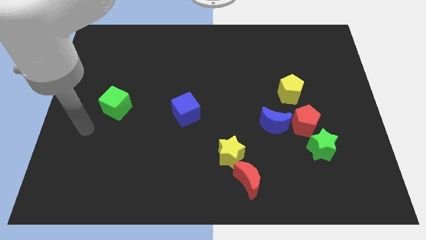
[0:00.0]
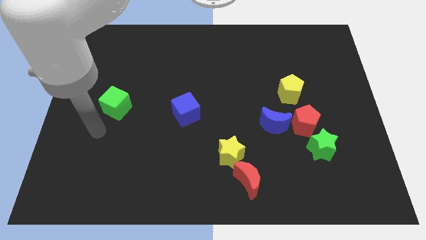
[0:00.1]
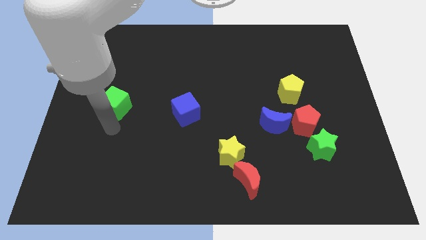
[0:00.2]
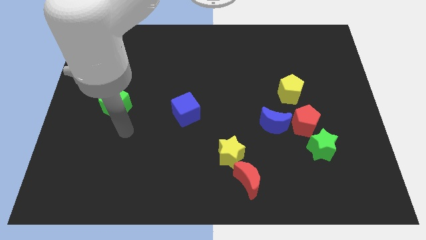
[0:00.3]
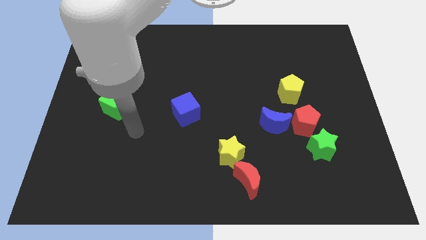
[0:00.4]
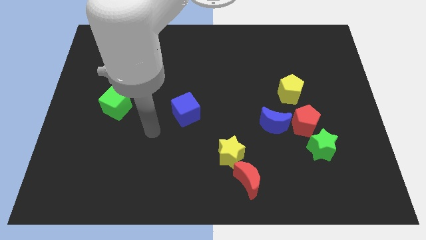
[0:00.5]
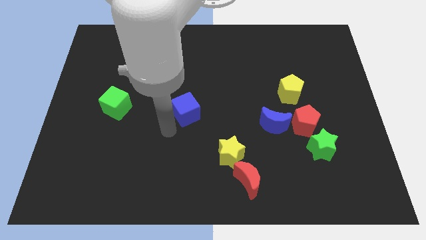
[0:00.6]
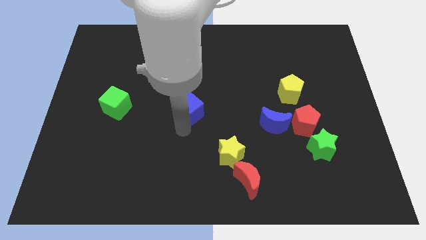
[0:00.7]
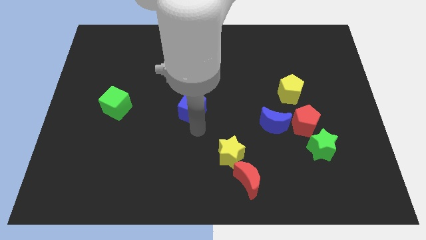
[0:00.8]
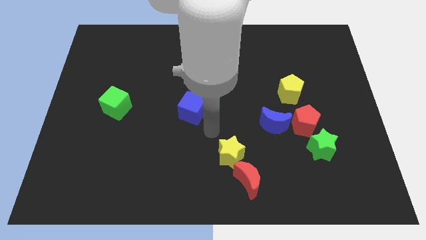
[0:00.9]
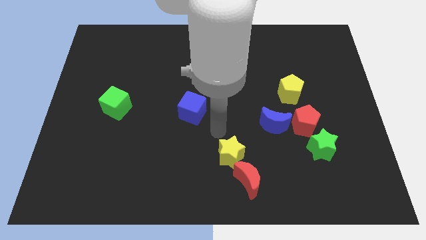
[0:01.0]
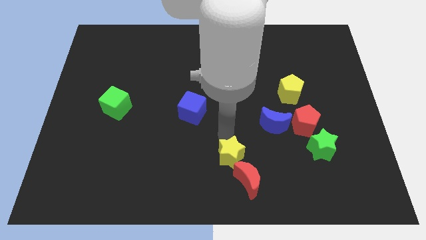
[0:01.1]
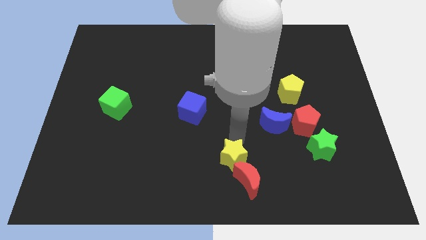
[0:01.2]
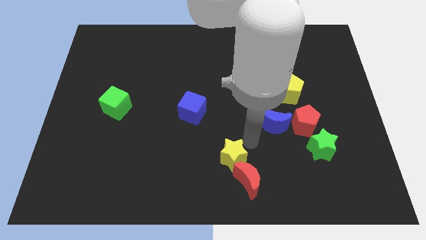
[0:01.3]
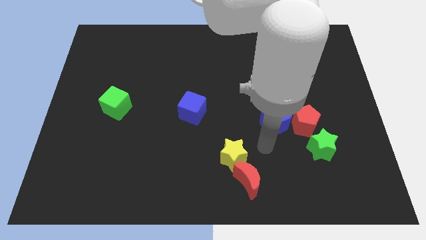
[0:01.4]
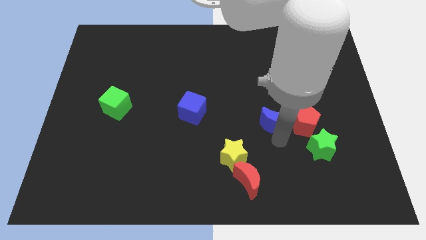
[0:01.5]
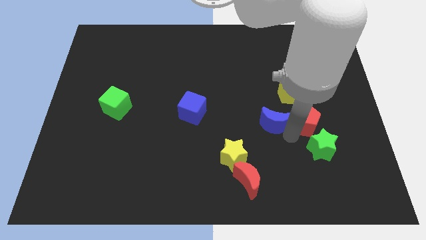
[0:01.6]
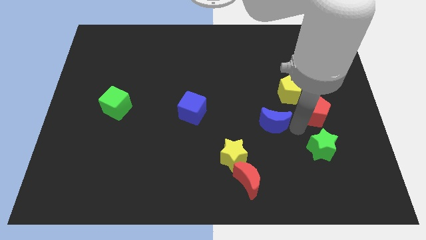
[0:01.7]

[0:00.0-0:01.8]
separate the blue moon from the red pentagon

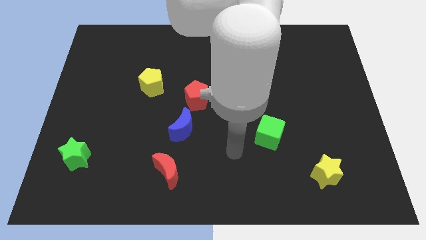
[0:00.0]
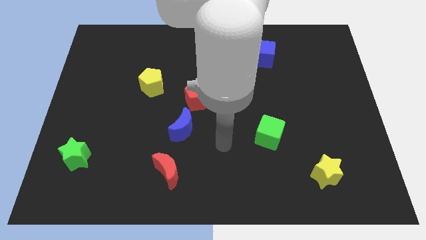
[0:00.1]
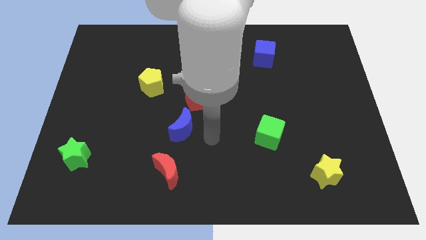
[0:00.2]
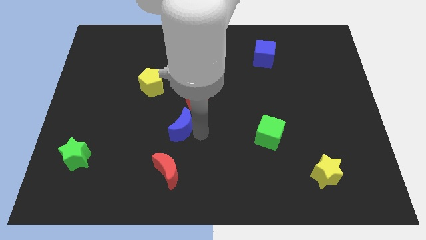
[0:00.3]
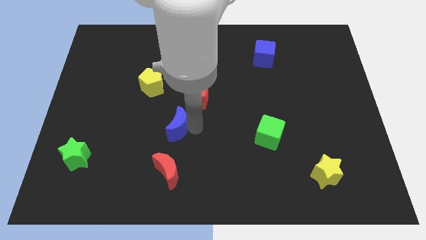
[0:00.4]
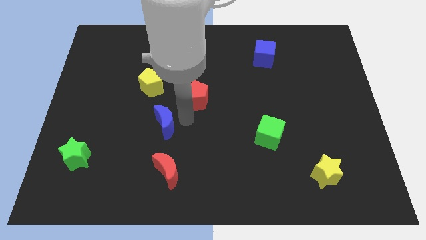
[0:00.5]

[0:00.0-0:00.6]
pull the red pentagon apart from the blue moon

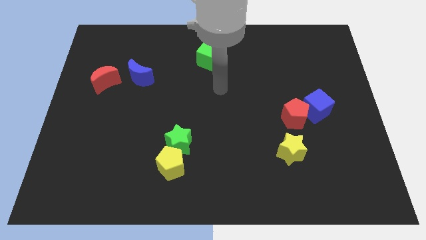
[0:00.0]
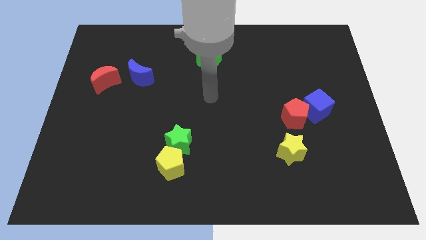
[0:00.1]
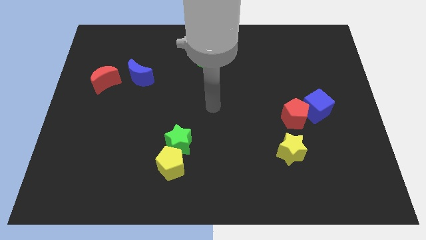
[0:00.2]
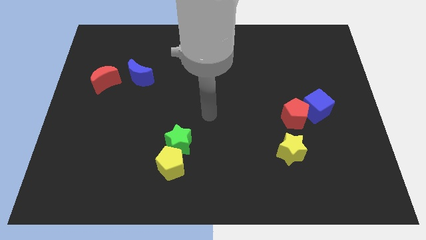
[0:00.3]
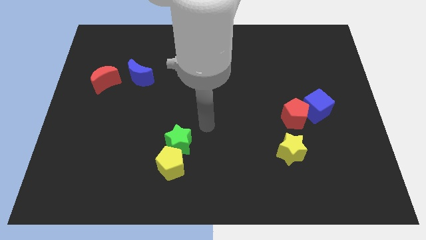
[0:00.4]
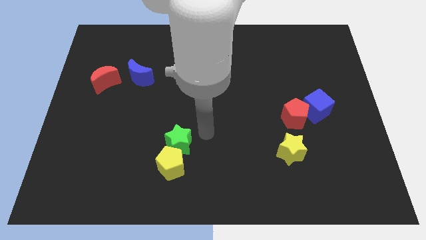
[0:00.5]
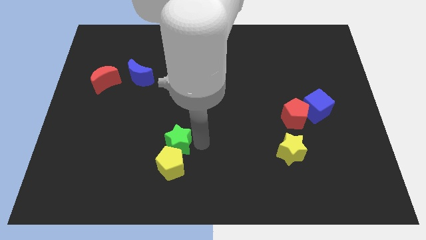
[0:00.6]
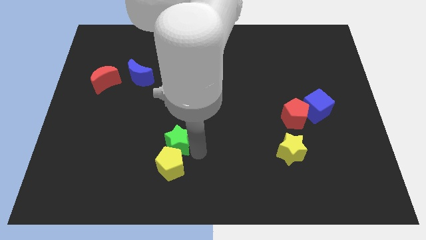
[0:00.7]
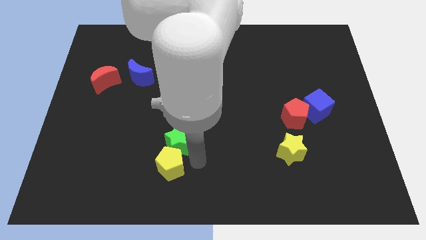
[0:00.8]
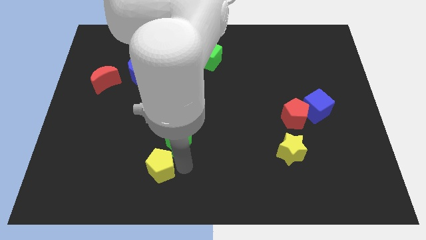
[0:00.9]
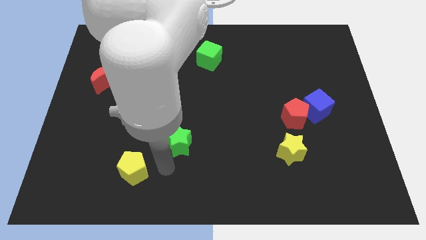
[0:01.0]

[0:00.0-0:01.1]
separate the green star from the yellow pentagon

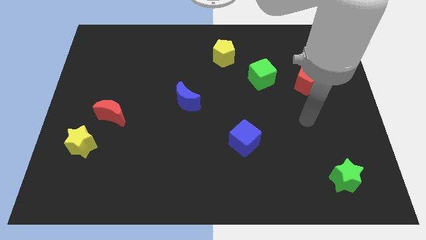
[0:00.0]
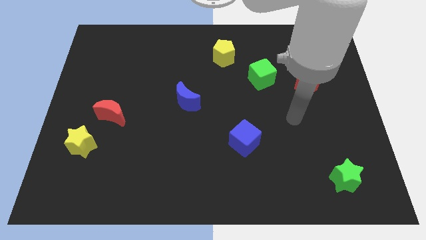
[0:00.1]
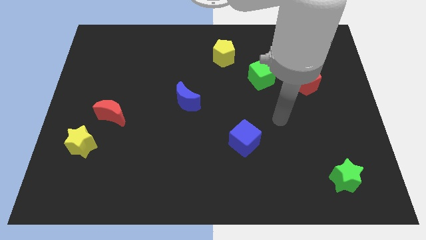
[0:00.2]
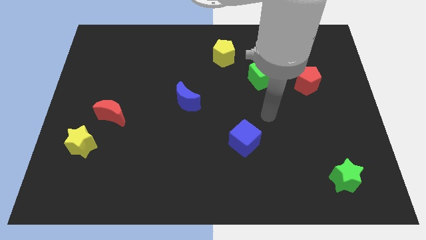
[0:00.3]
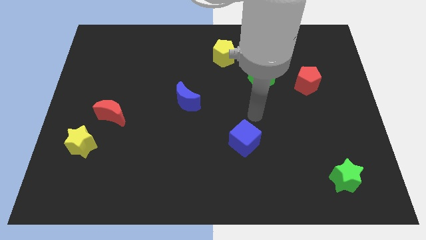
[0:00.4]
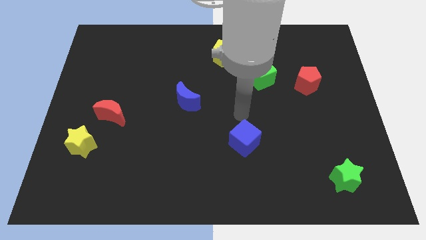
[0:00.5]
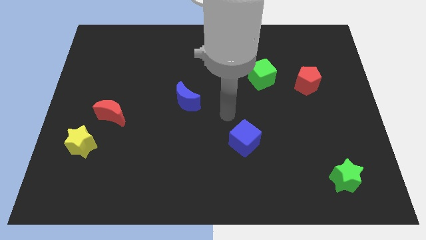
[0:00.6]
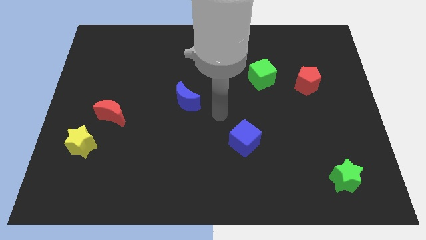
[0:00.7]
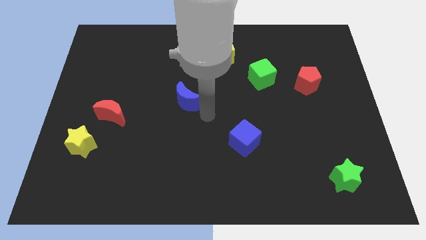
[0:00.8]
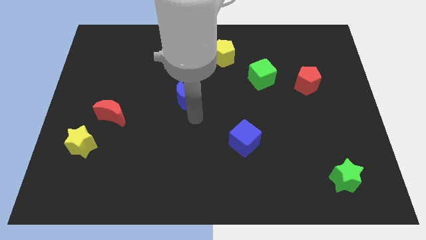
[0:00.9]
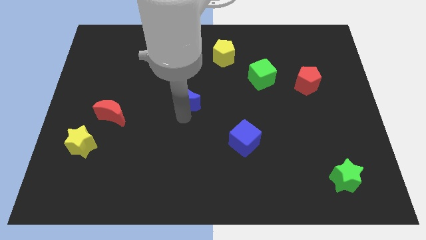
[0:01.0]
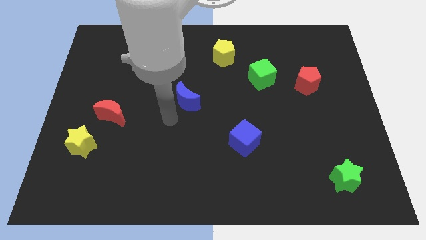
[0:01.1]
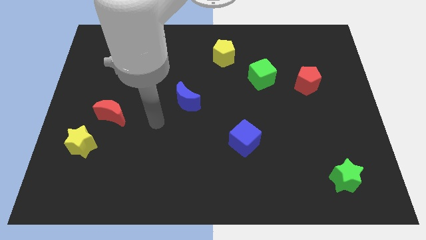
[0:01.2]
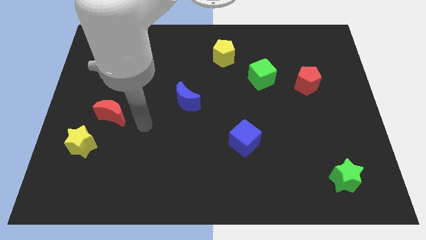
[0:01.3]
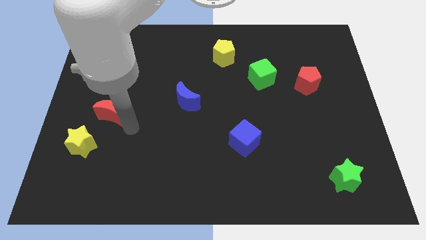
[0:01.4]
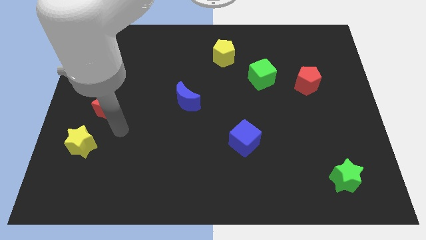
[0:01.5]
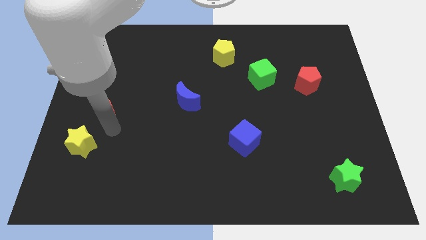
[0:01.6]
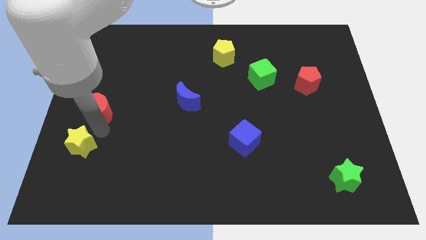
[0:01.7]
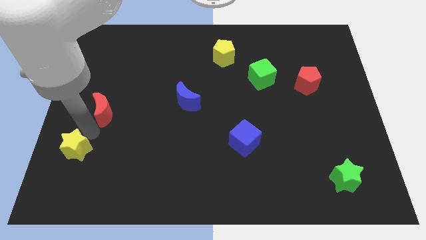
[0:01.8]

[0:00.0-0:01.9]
pull the red moon apart from the yellow star

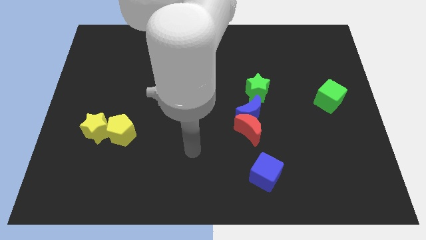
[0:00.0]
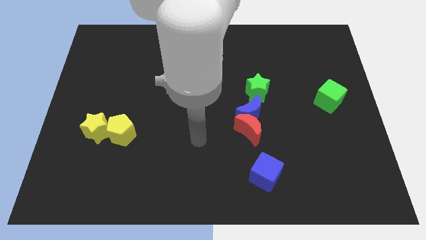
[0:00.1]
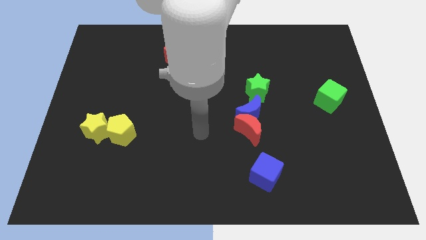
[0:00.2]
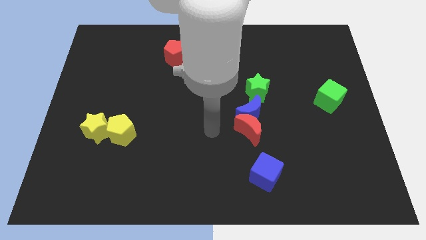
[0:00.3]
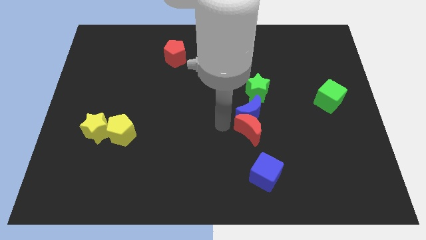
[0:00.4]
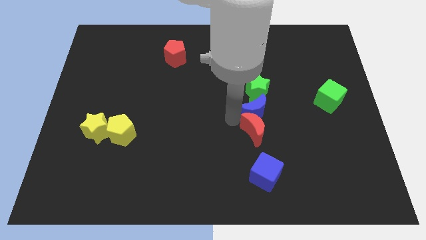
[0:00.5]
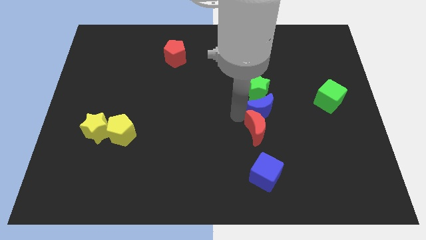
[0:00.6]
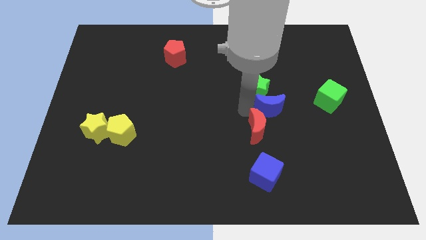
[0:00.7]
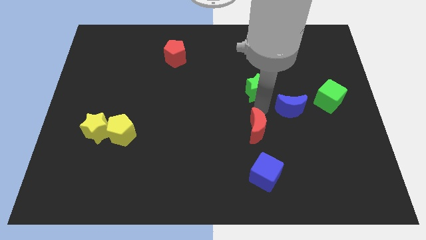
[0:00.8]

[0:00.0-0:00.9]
separate the red moon from the blue moon

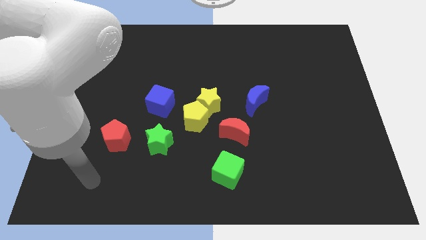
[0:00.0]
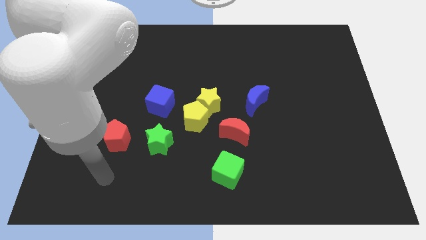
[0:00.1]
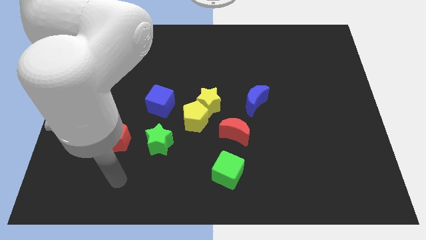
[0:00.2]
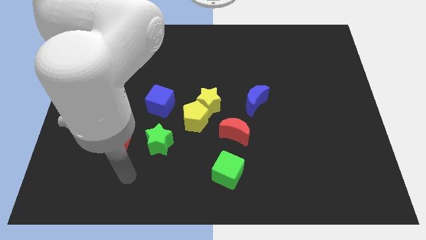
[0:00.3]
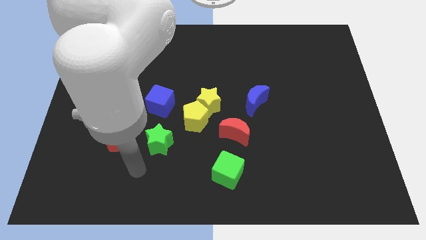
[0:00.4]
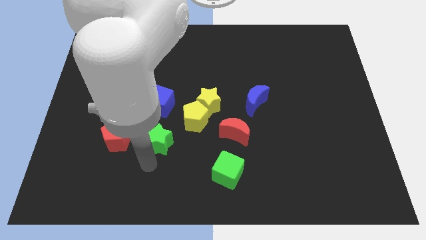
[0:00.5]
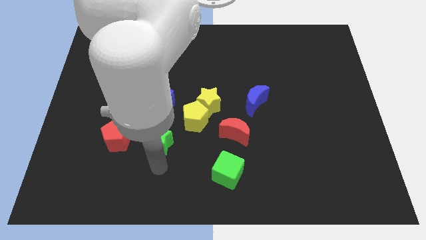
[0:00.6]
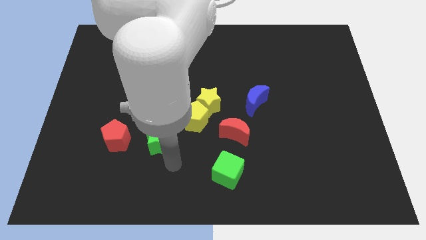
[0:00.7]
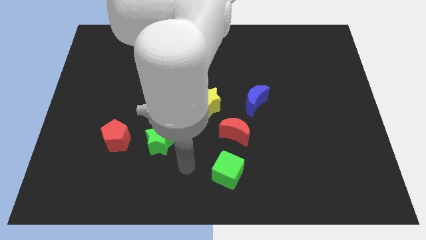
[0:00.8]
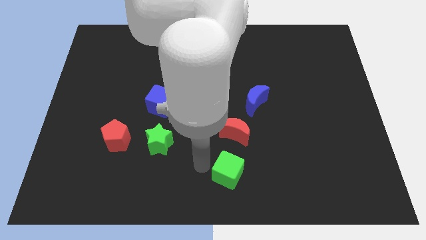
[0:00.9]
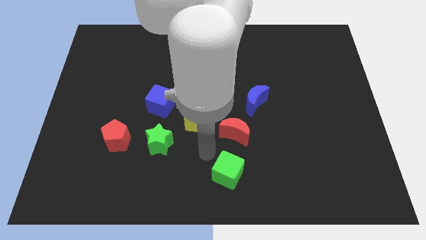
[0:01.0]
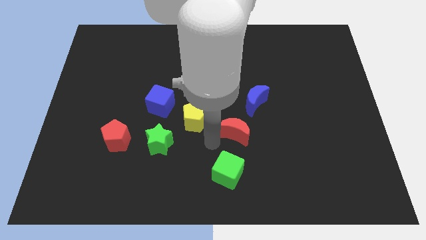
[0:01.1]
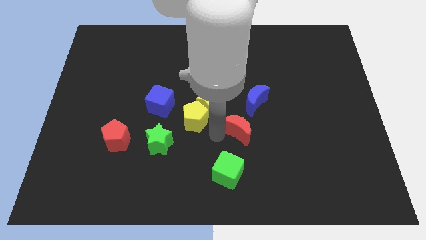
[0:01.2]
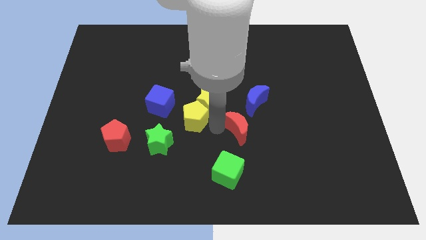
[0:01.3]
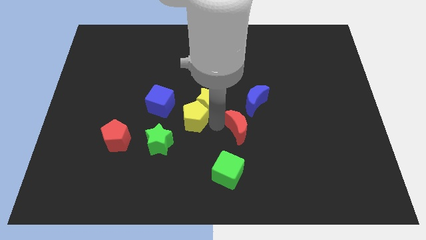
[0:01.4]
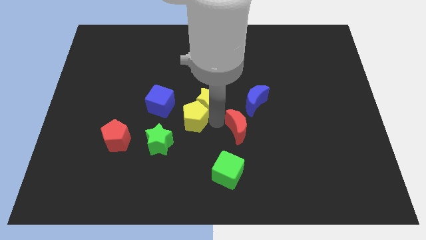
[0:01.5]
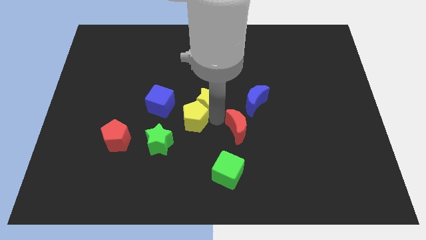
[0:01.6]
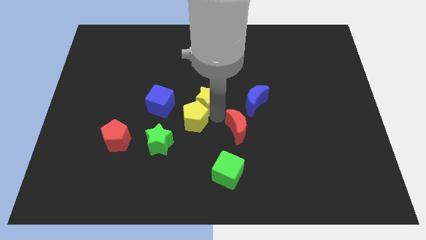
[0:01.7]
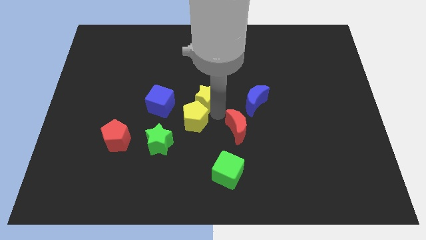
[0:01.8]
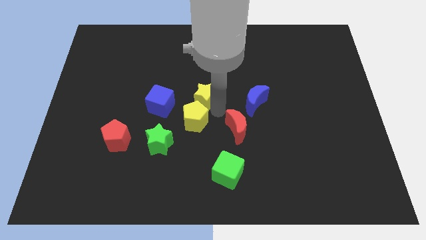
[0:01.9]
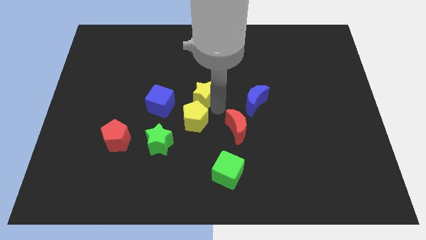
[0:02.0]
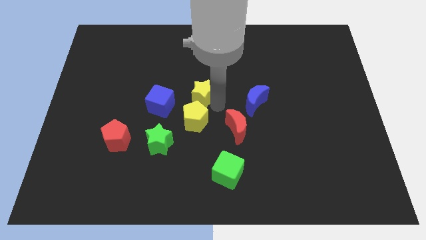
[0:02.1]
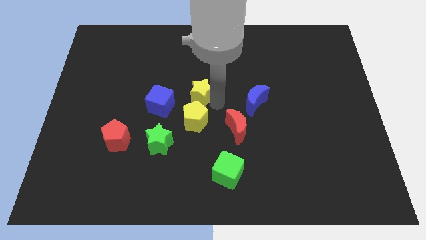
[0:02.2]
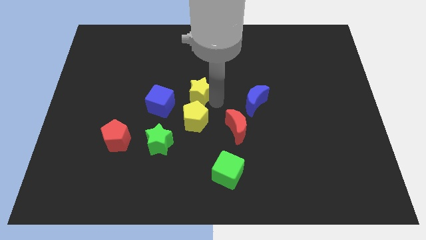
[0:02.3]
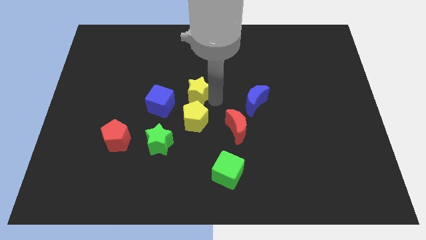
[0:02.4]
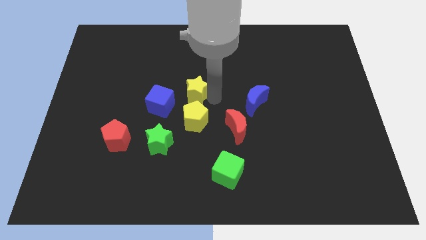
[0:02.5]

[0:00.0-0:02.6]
pull the yellow star apart from the yellow pentagon and red moon

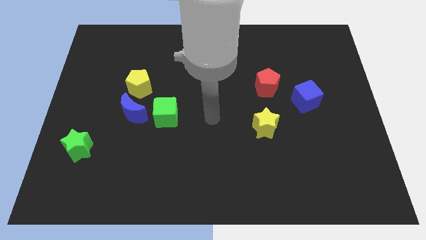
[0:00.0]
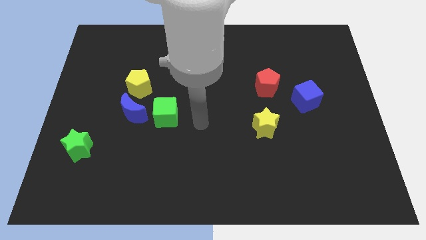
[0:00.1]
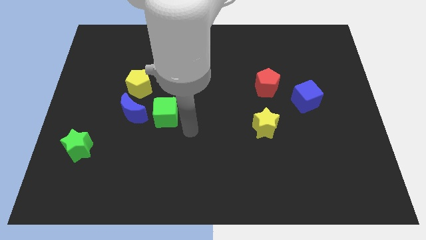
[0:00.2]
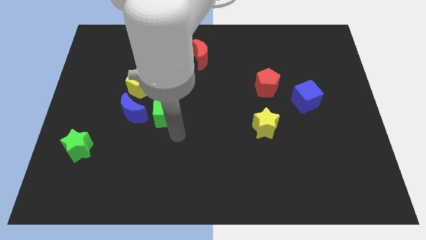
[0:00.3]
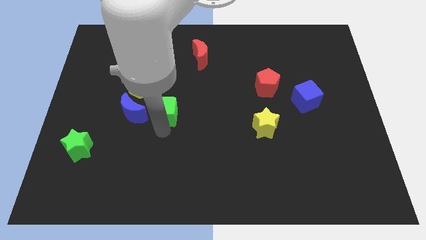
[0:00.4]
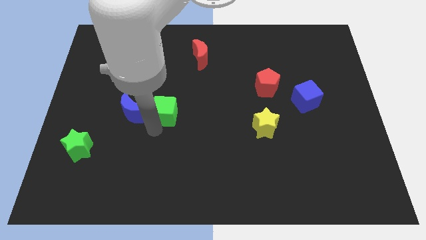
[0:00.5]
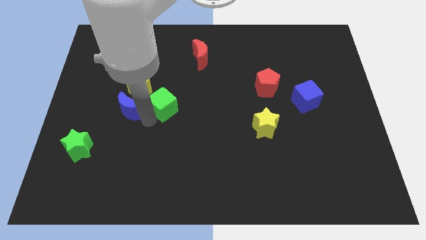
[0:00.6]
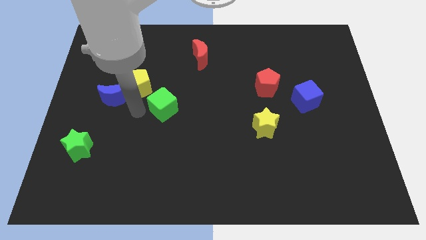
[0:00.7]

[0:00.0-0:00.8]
separate the green cube from the blue moon
